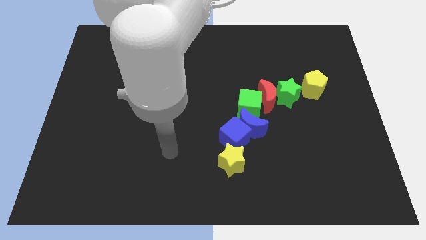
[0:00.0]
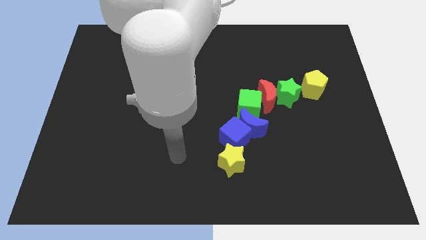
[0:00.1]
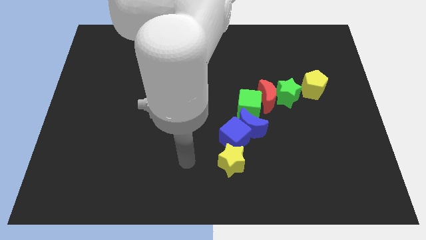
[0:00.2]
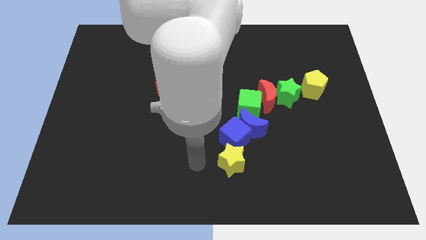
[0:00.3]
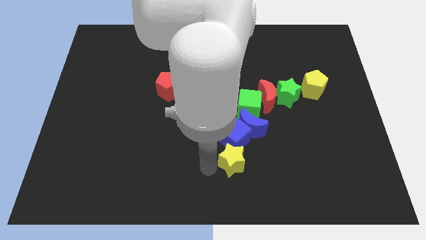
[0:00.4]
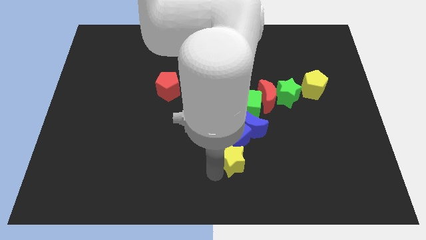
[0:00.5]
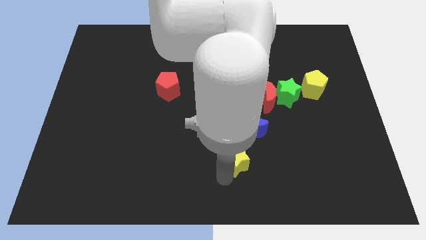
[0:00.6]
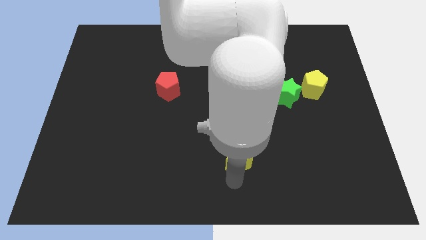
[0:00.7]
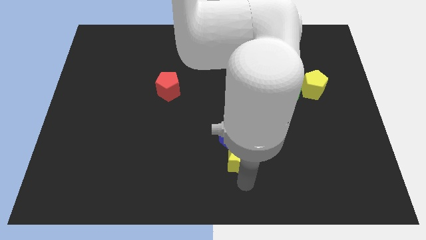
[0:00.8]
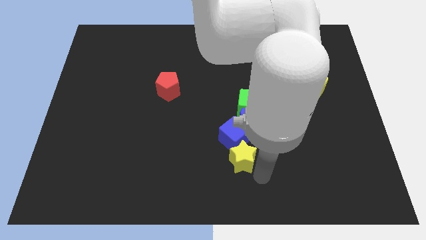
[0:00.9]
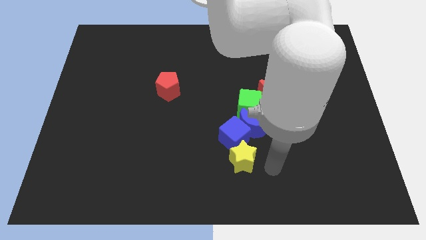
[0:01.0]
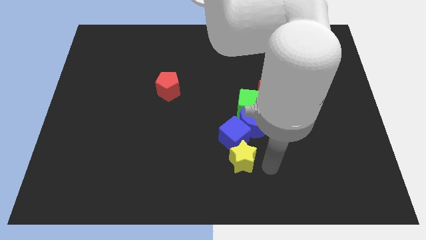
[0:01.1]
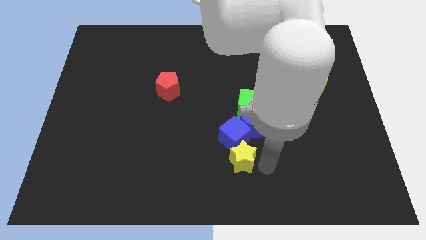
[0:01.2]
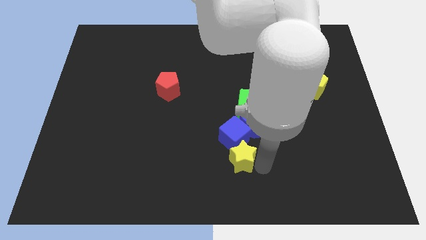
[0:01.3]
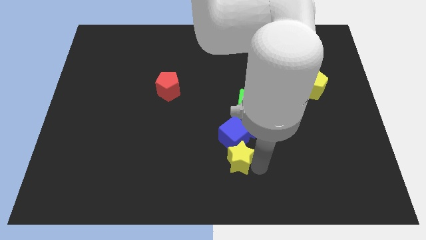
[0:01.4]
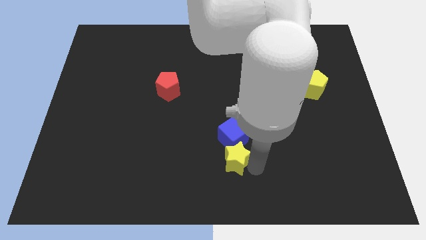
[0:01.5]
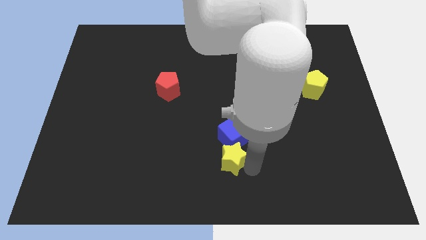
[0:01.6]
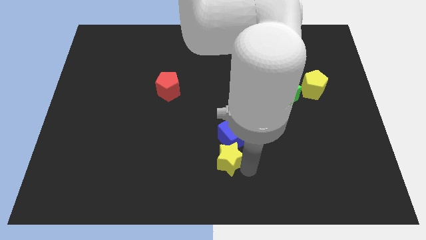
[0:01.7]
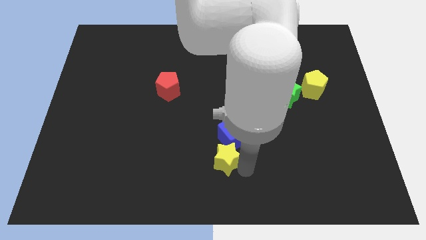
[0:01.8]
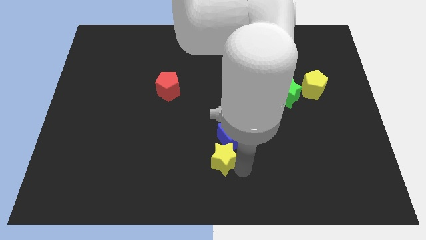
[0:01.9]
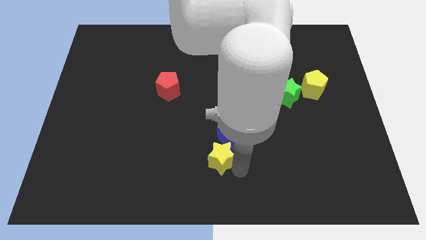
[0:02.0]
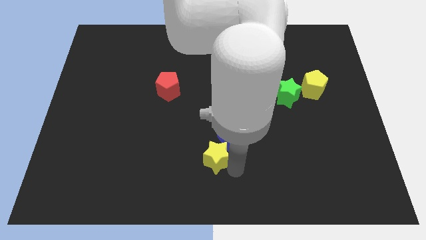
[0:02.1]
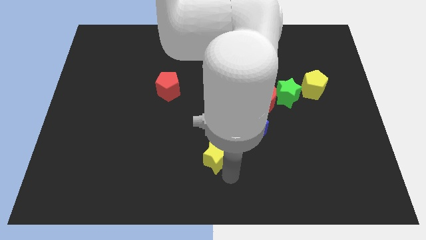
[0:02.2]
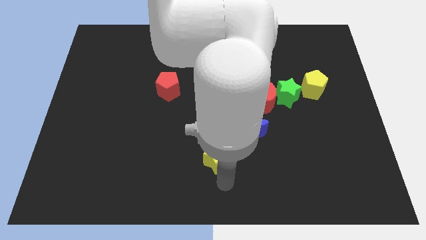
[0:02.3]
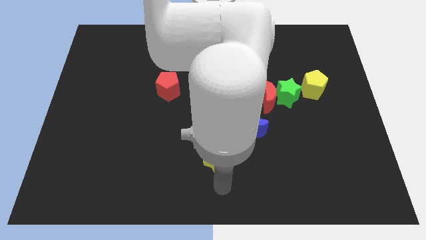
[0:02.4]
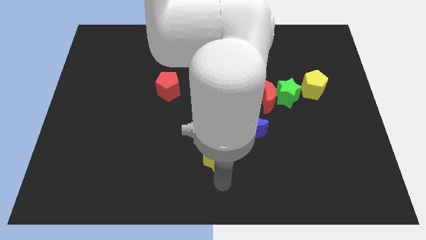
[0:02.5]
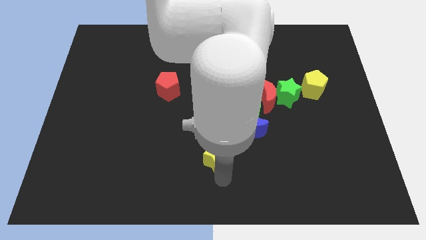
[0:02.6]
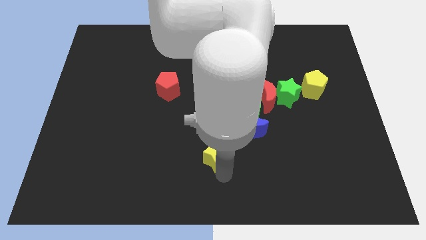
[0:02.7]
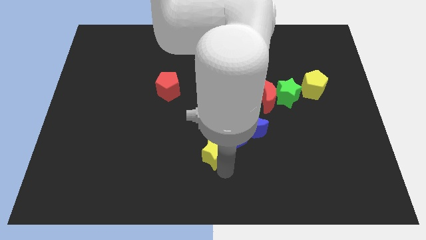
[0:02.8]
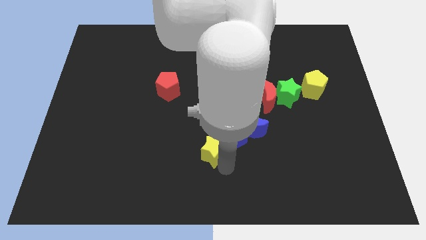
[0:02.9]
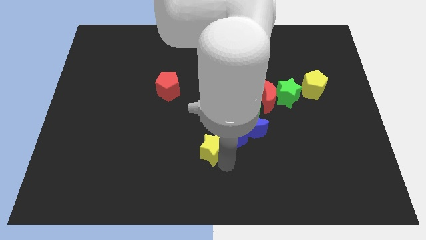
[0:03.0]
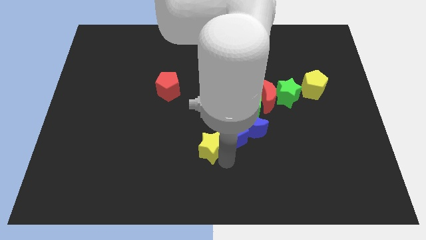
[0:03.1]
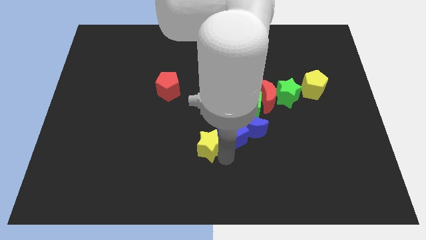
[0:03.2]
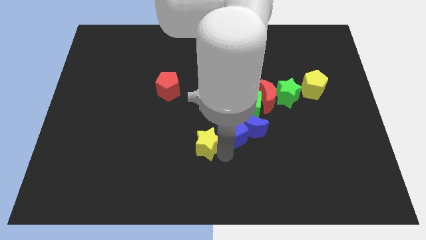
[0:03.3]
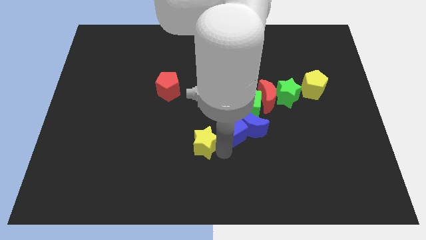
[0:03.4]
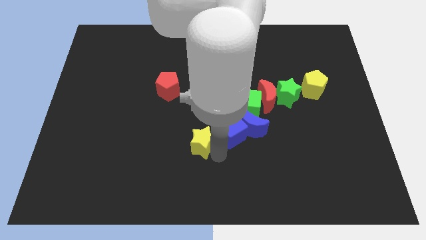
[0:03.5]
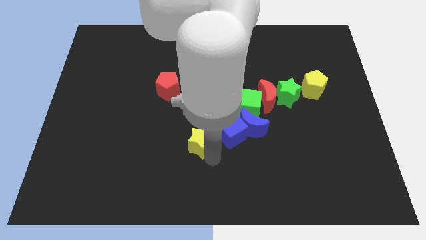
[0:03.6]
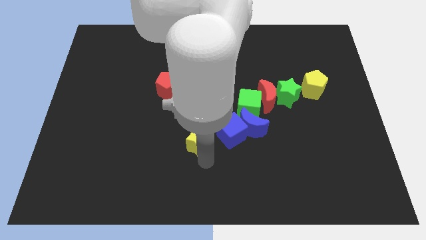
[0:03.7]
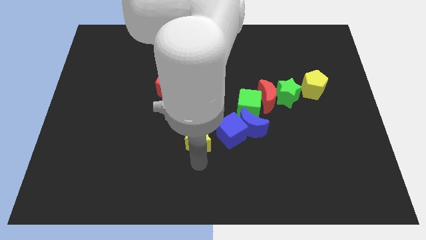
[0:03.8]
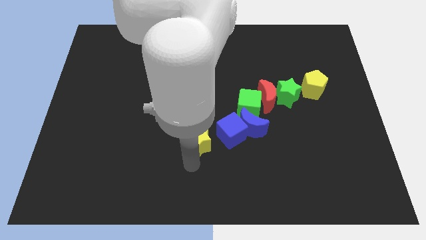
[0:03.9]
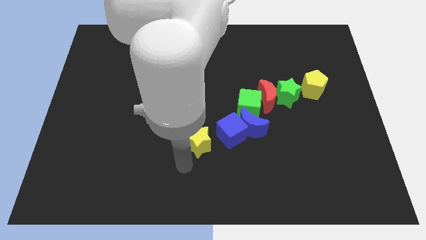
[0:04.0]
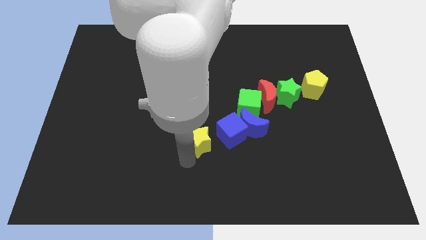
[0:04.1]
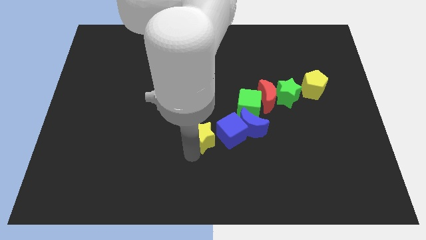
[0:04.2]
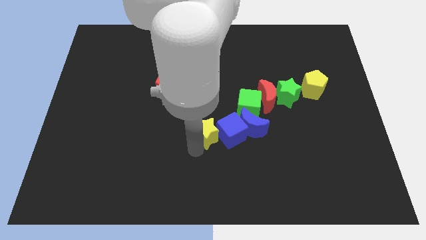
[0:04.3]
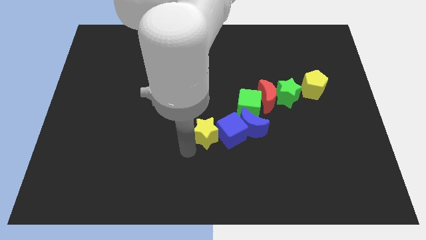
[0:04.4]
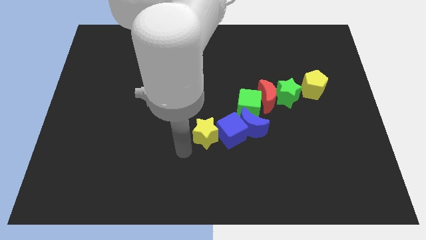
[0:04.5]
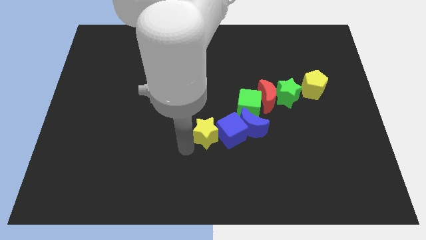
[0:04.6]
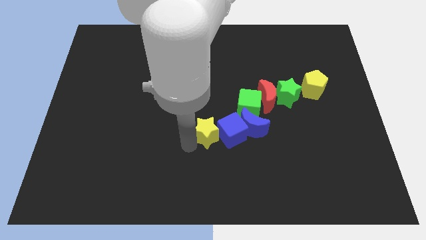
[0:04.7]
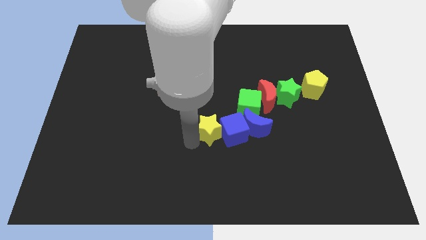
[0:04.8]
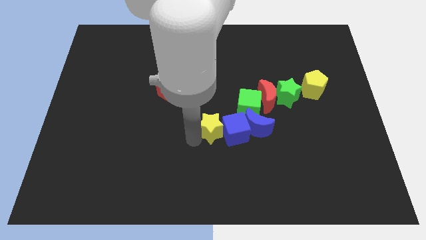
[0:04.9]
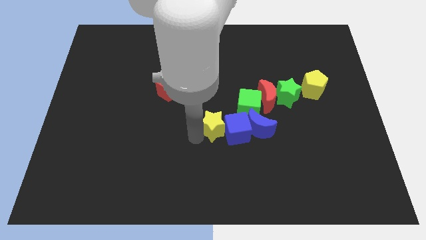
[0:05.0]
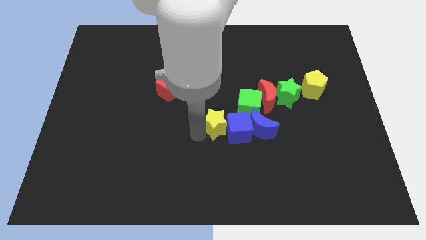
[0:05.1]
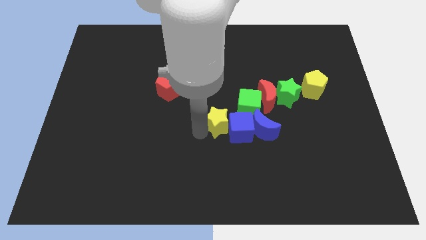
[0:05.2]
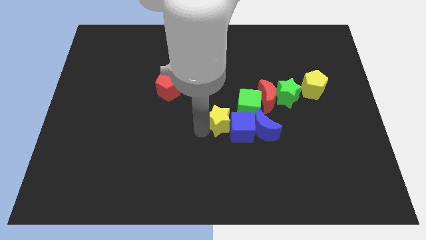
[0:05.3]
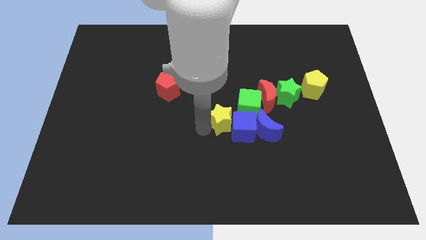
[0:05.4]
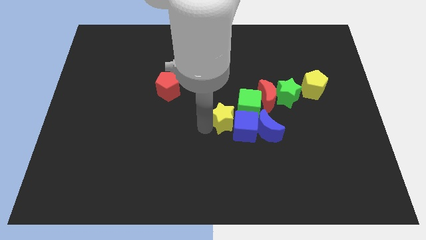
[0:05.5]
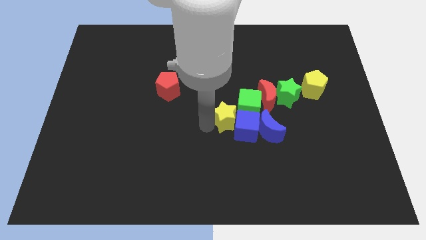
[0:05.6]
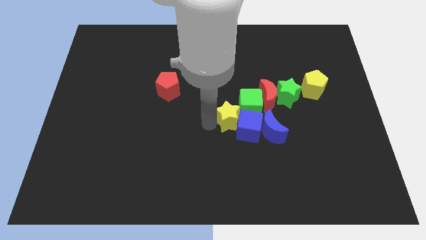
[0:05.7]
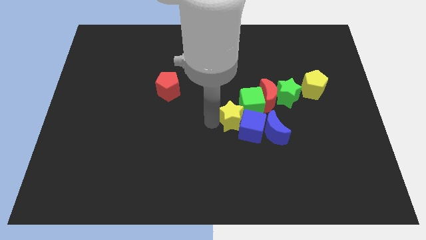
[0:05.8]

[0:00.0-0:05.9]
put the yellow star next to the green cube
